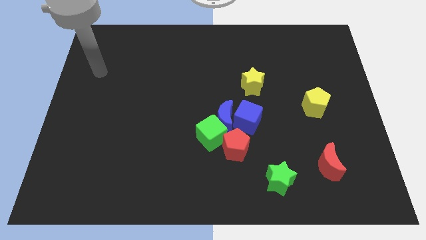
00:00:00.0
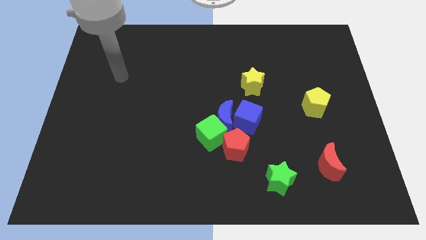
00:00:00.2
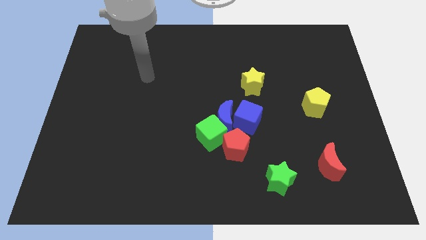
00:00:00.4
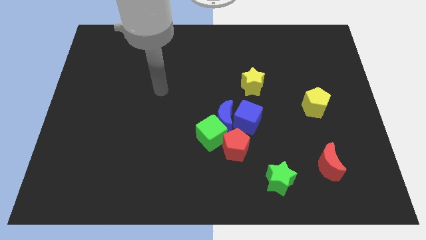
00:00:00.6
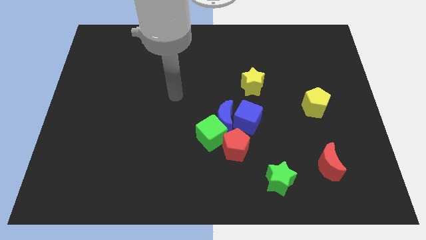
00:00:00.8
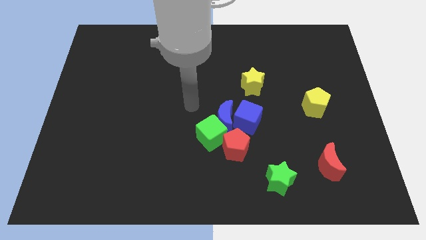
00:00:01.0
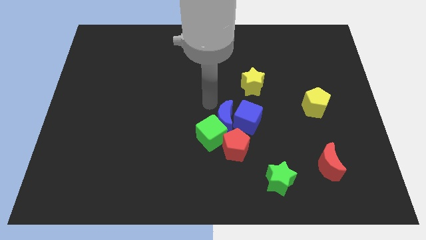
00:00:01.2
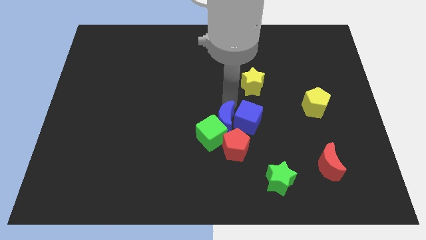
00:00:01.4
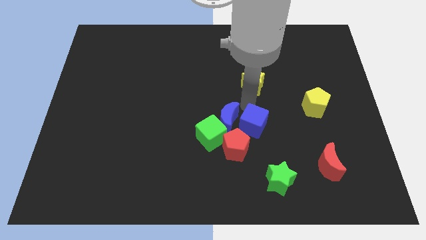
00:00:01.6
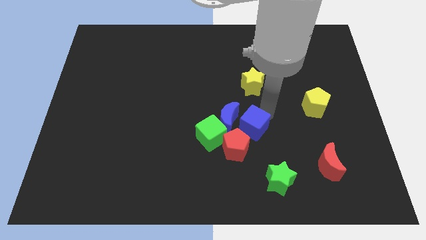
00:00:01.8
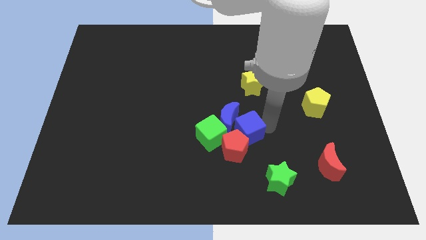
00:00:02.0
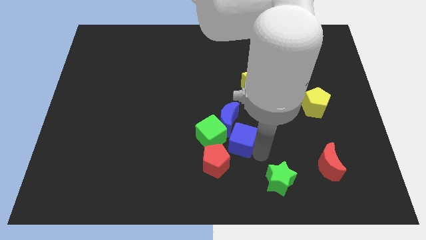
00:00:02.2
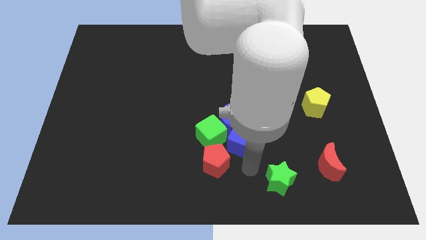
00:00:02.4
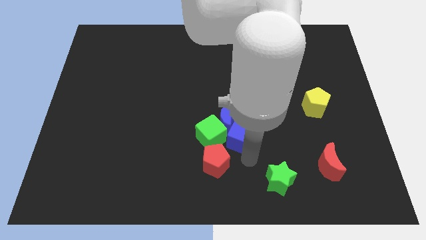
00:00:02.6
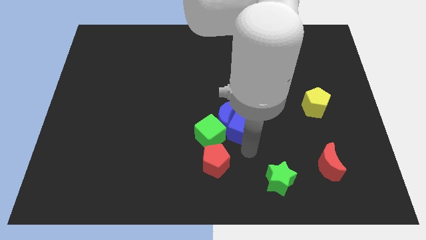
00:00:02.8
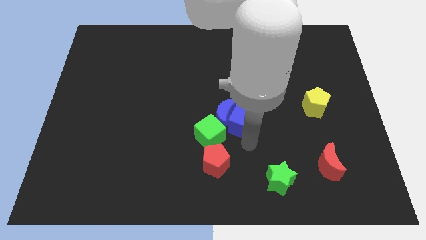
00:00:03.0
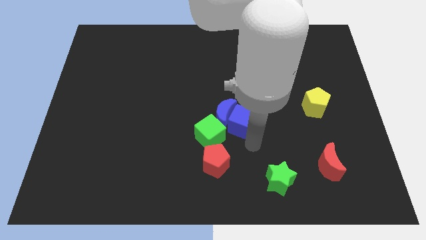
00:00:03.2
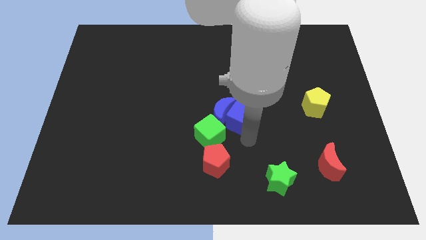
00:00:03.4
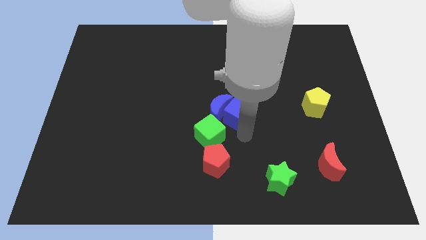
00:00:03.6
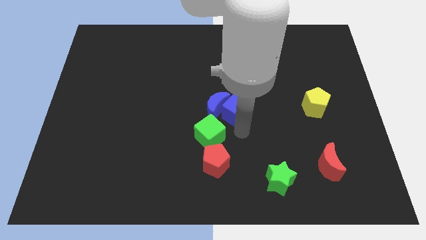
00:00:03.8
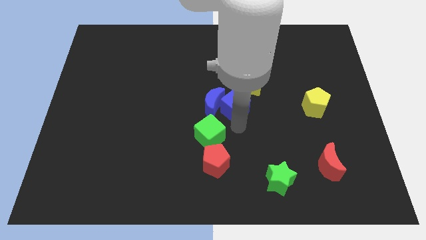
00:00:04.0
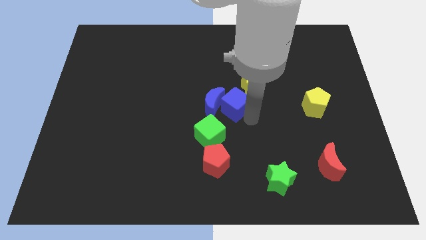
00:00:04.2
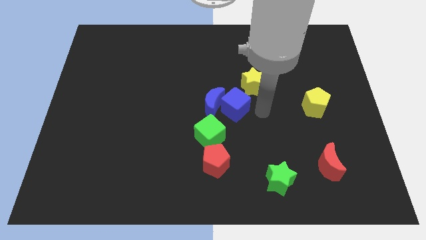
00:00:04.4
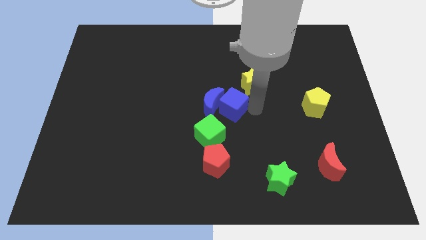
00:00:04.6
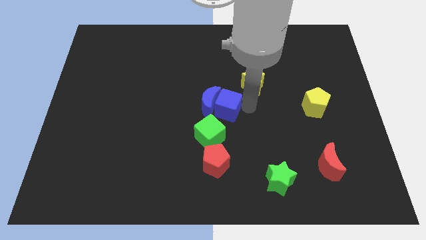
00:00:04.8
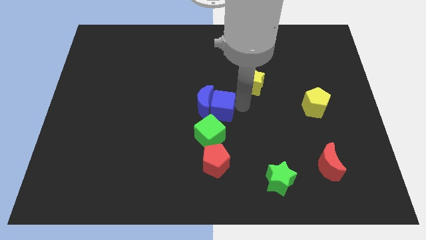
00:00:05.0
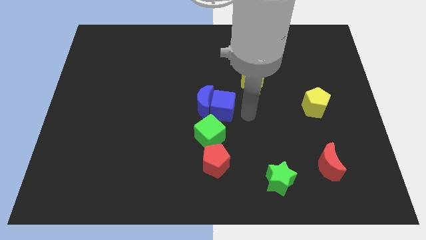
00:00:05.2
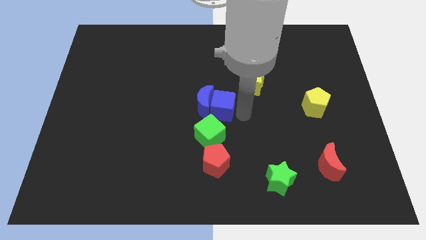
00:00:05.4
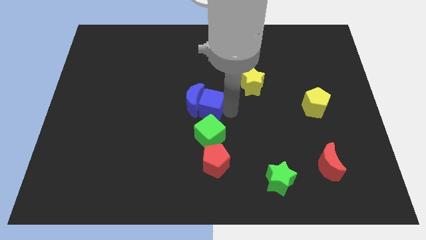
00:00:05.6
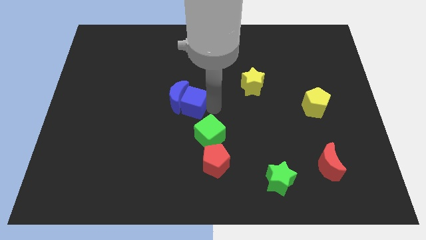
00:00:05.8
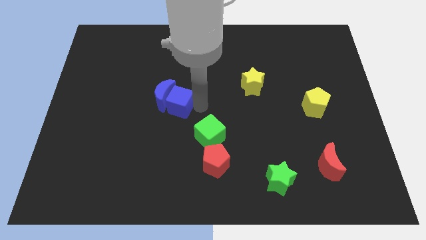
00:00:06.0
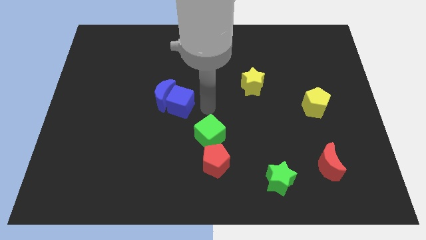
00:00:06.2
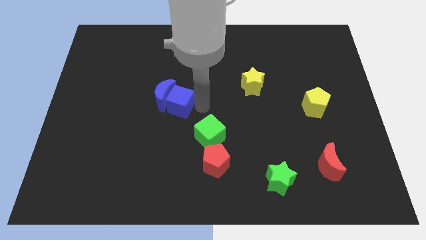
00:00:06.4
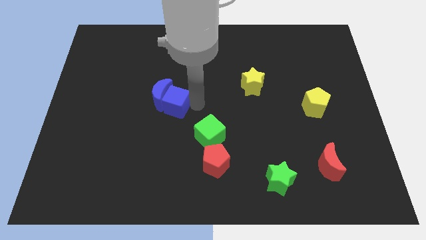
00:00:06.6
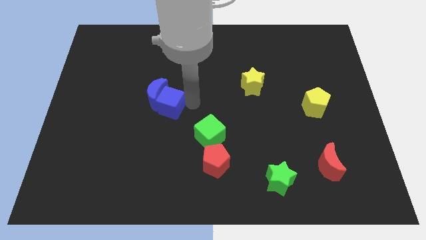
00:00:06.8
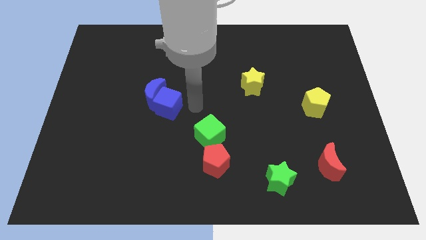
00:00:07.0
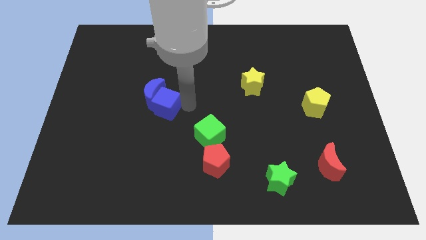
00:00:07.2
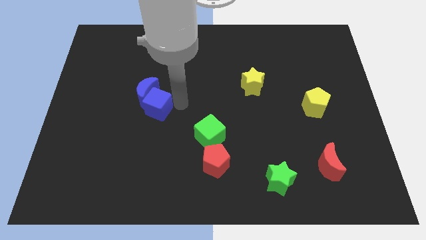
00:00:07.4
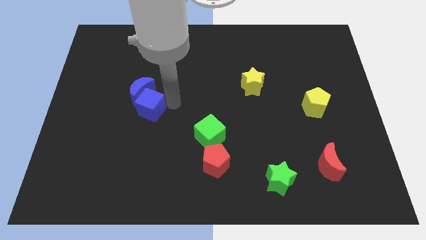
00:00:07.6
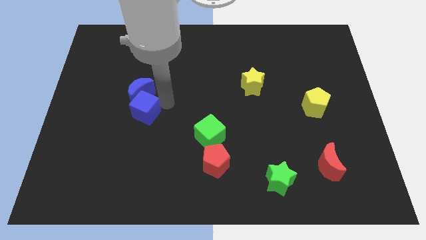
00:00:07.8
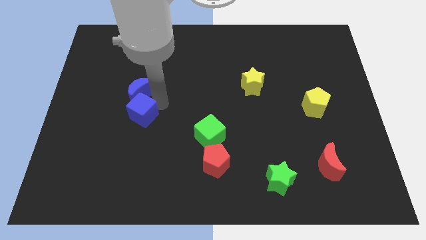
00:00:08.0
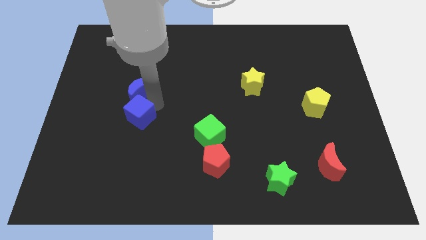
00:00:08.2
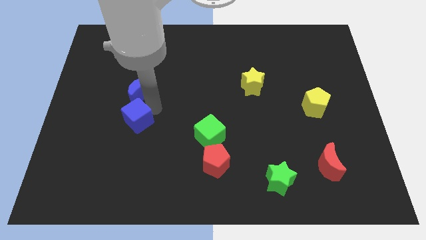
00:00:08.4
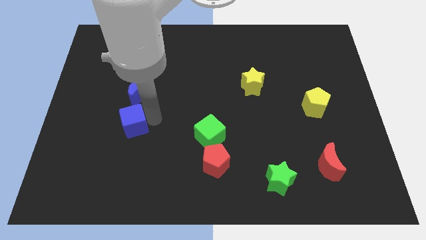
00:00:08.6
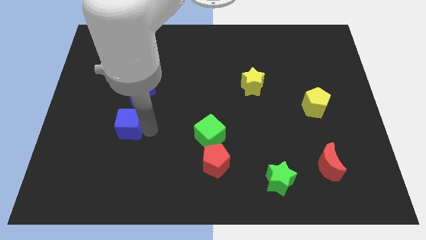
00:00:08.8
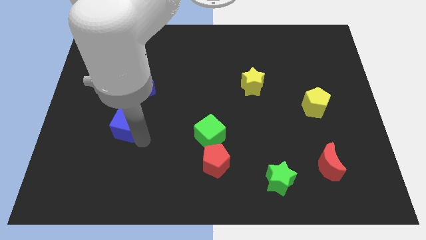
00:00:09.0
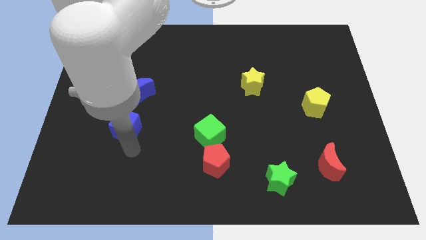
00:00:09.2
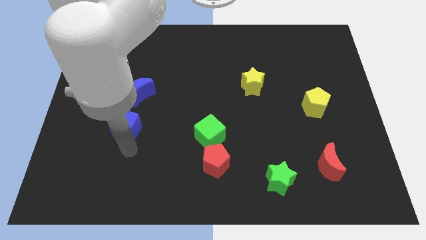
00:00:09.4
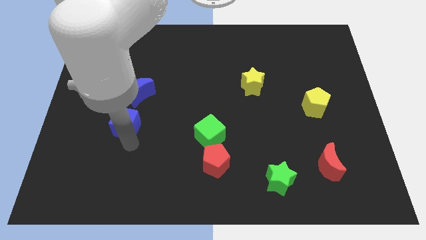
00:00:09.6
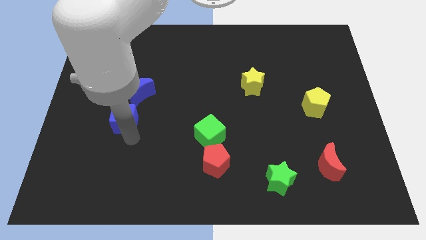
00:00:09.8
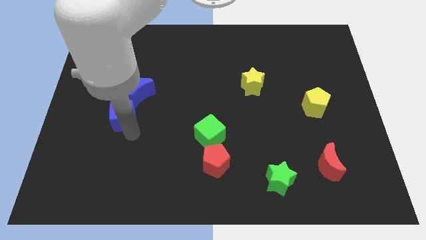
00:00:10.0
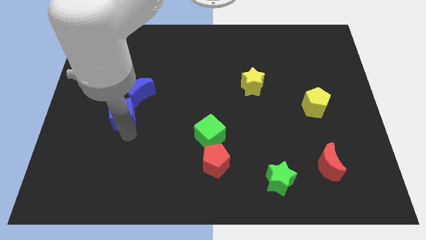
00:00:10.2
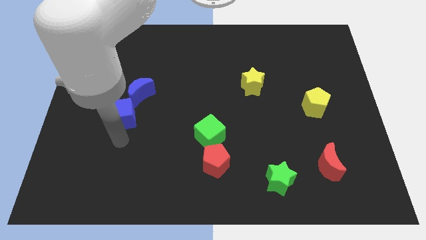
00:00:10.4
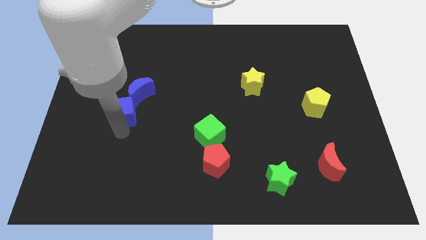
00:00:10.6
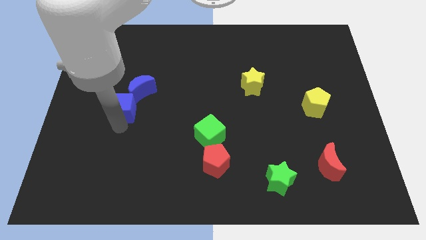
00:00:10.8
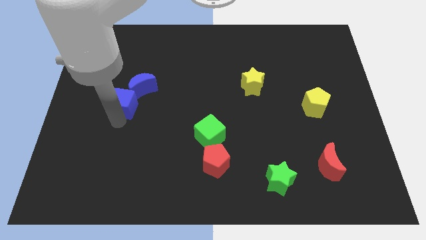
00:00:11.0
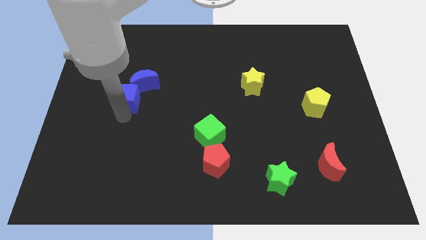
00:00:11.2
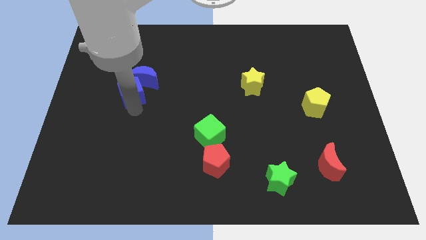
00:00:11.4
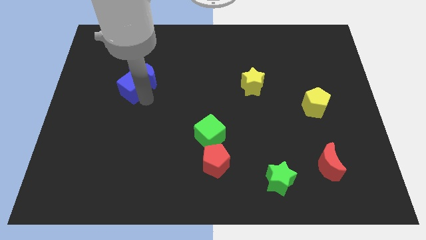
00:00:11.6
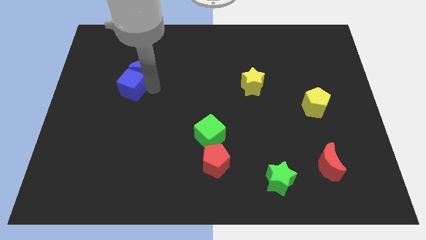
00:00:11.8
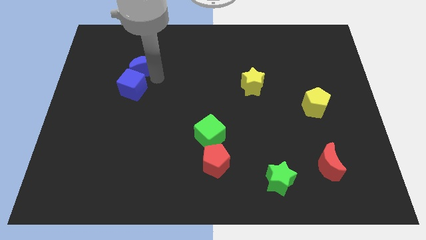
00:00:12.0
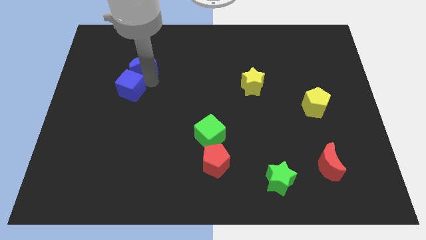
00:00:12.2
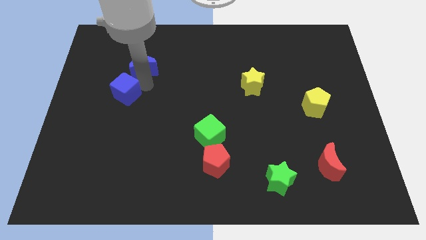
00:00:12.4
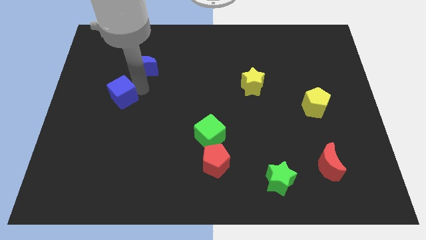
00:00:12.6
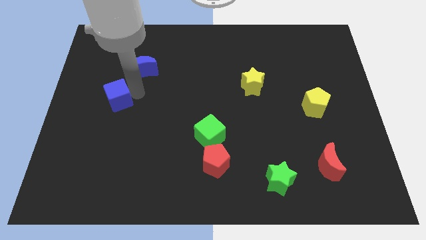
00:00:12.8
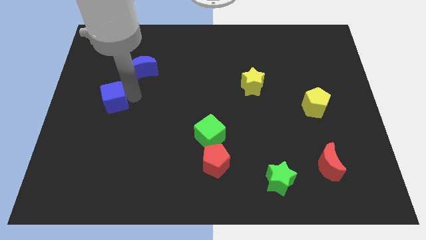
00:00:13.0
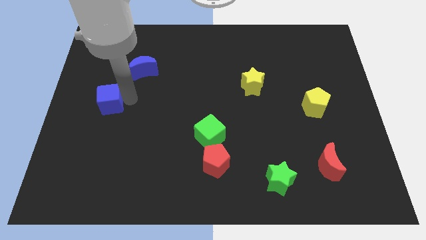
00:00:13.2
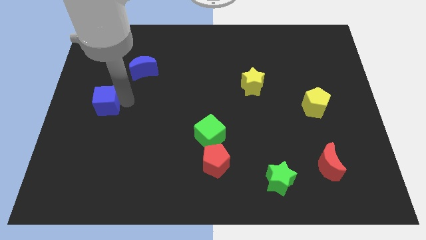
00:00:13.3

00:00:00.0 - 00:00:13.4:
slide the blue cube to the left side of the board
